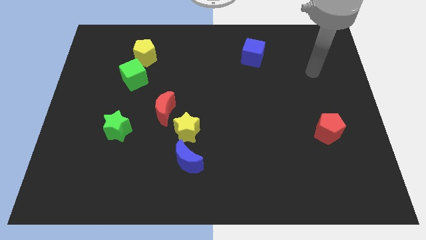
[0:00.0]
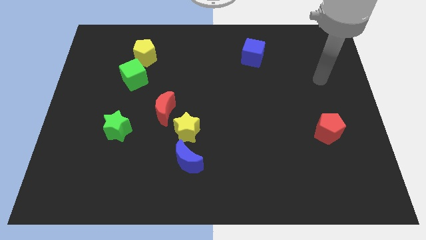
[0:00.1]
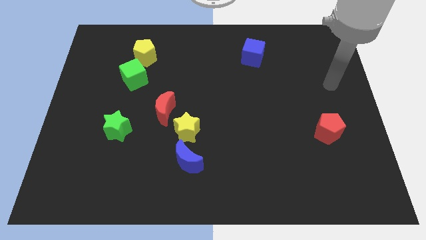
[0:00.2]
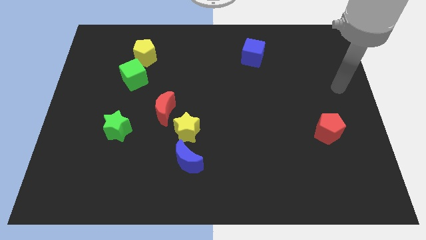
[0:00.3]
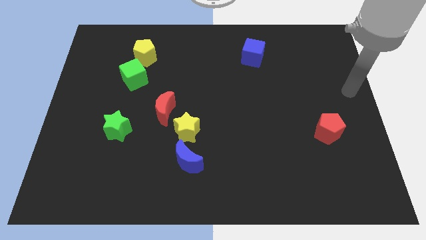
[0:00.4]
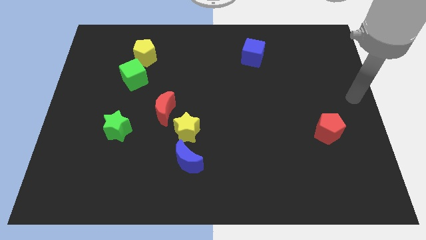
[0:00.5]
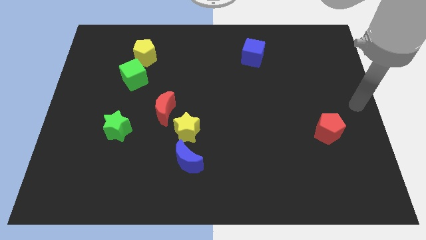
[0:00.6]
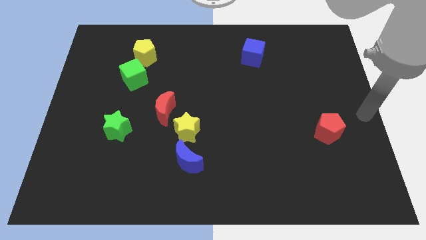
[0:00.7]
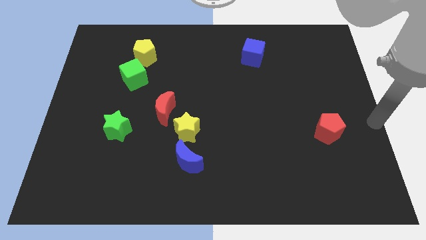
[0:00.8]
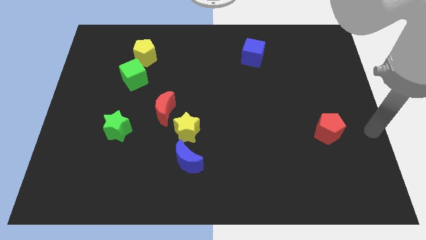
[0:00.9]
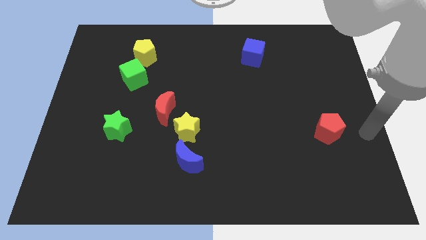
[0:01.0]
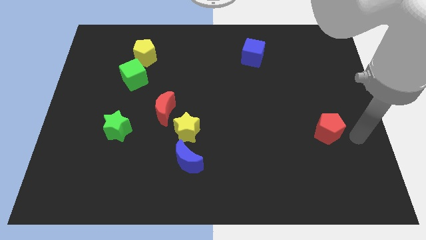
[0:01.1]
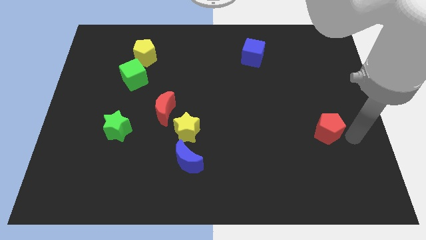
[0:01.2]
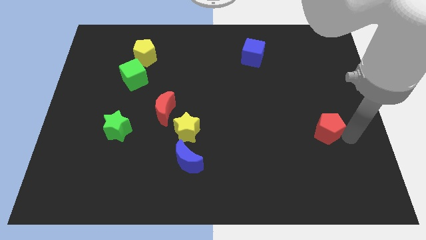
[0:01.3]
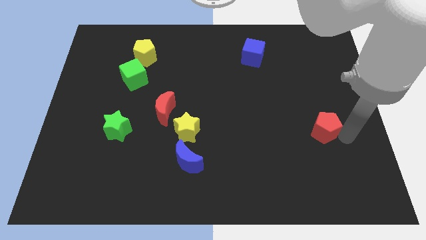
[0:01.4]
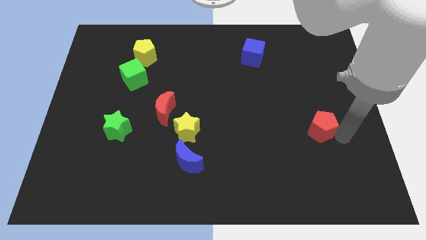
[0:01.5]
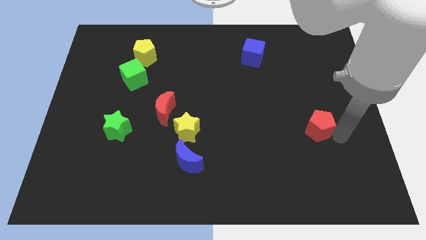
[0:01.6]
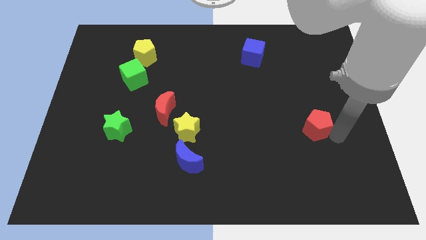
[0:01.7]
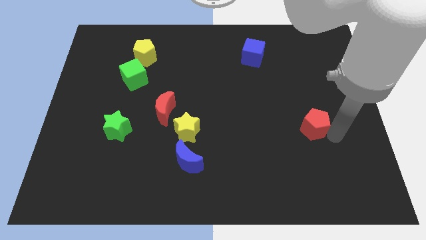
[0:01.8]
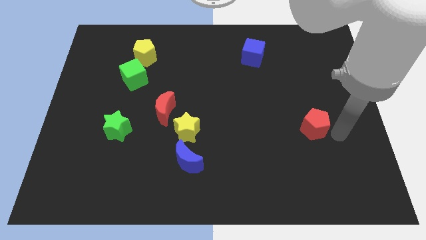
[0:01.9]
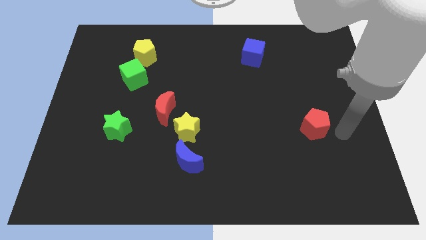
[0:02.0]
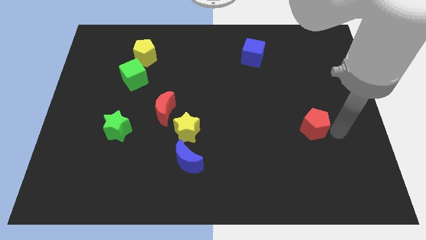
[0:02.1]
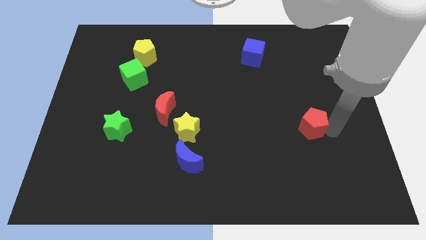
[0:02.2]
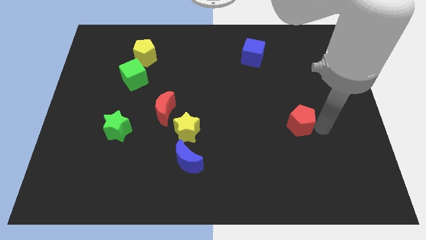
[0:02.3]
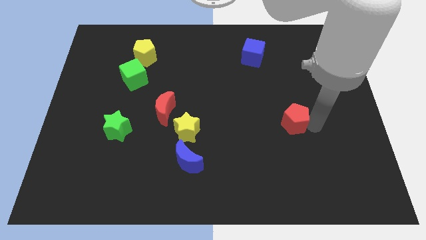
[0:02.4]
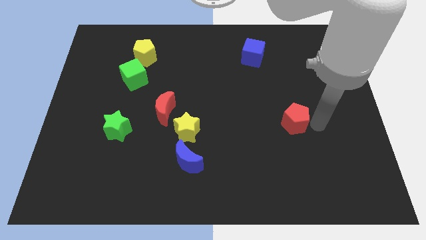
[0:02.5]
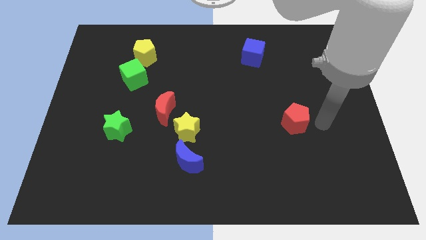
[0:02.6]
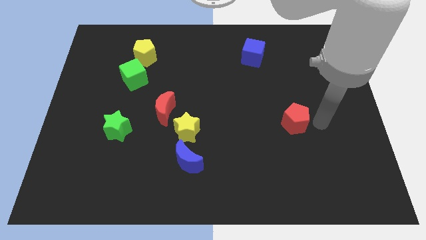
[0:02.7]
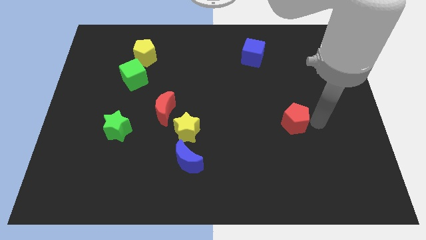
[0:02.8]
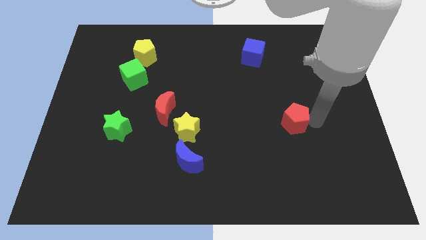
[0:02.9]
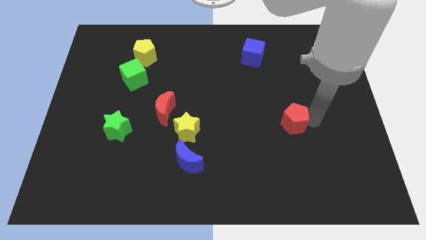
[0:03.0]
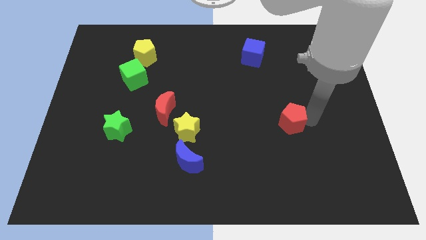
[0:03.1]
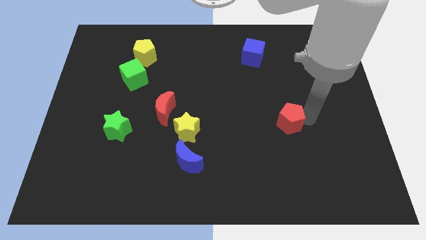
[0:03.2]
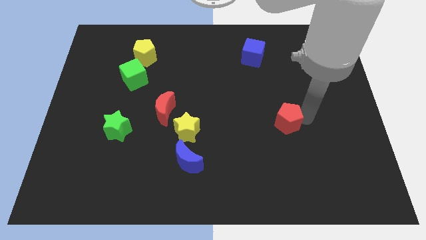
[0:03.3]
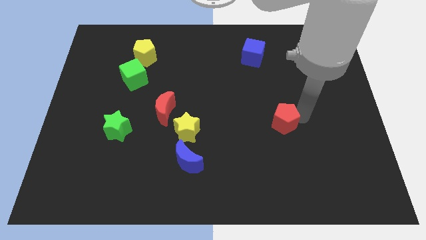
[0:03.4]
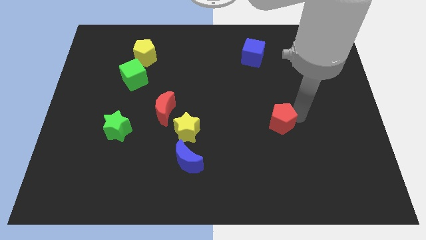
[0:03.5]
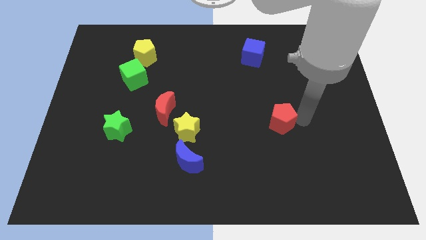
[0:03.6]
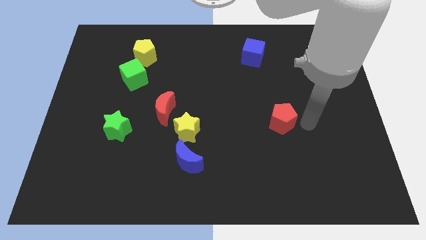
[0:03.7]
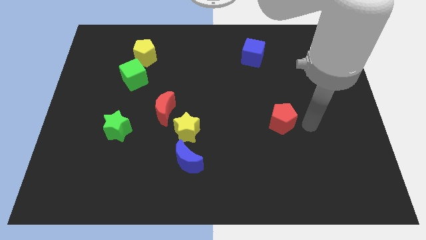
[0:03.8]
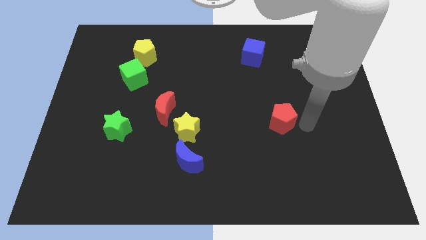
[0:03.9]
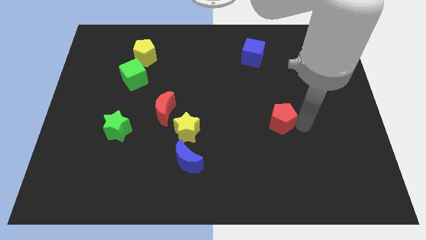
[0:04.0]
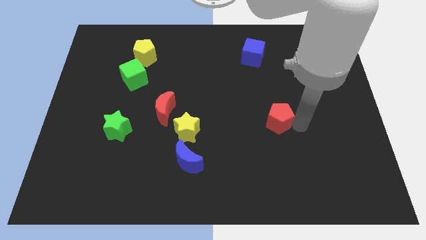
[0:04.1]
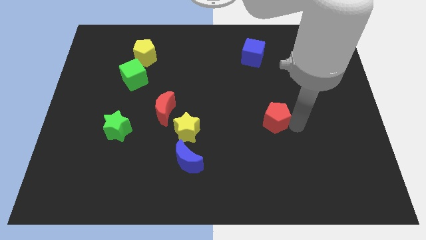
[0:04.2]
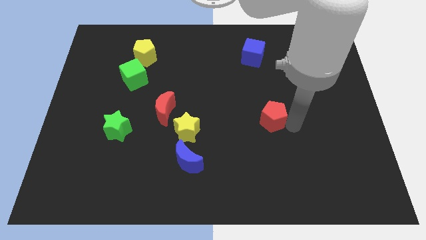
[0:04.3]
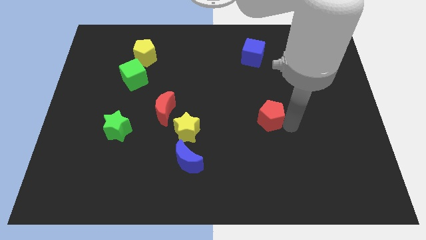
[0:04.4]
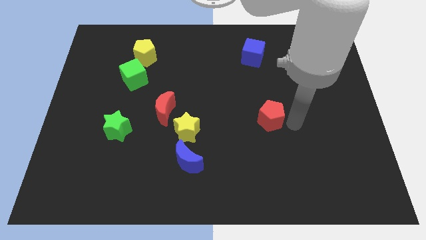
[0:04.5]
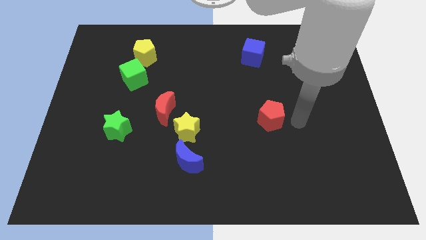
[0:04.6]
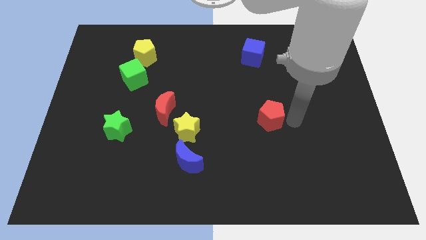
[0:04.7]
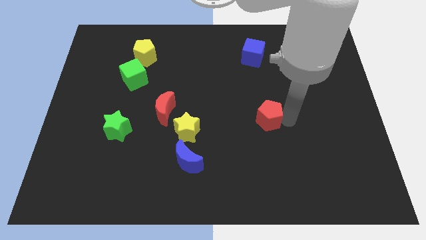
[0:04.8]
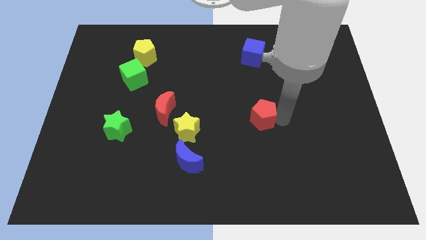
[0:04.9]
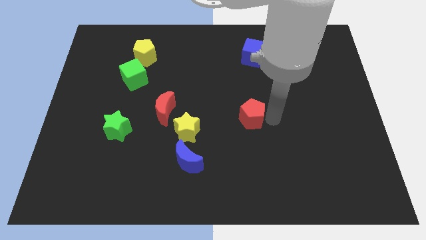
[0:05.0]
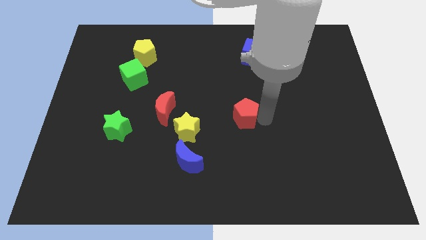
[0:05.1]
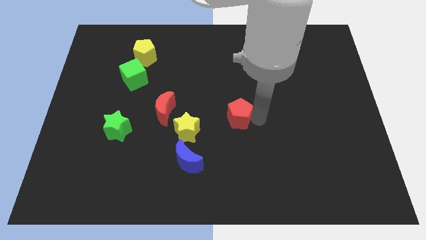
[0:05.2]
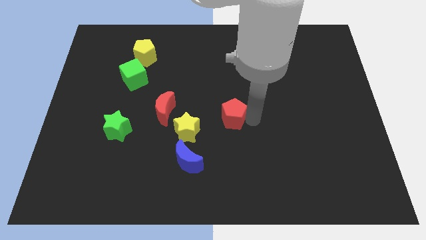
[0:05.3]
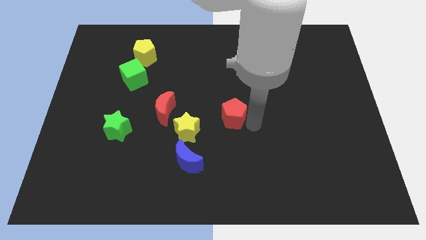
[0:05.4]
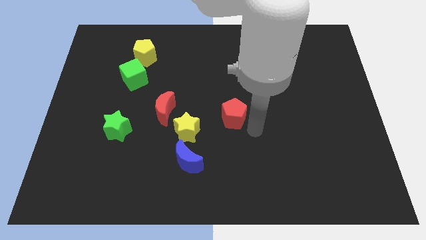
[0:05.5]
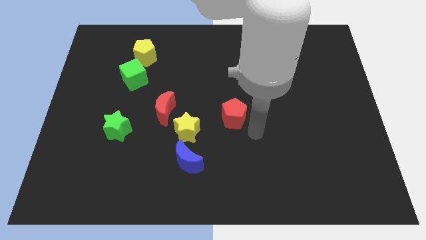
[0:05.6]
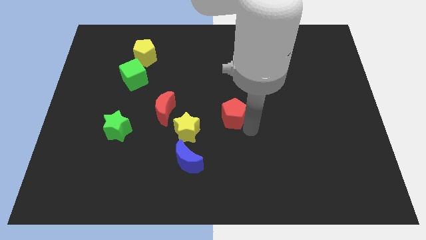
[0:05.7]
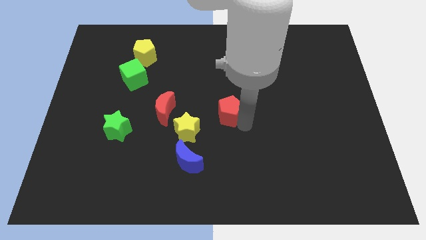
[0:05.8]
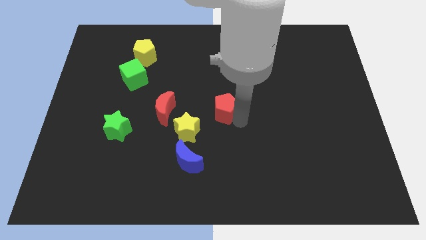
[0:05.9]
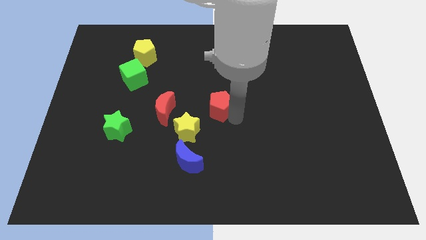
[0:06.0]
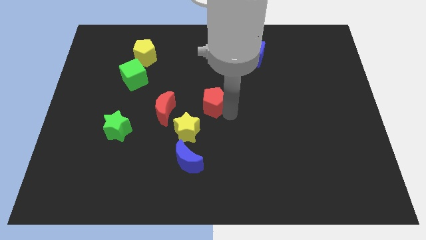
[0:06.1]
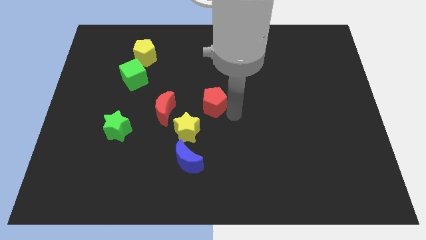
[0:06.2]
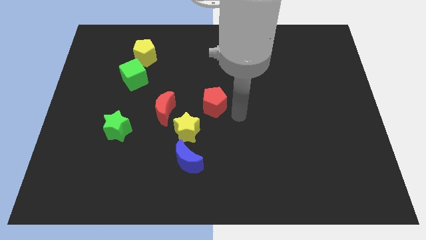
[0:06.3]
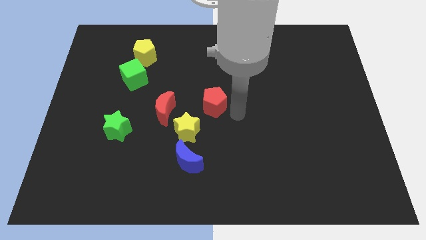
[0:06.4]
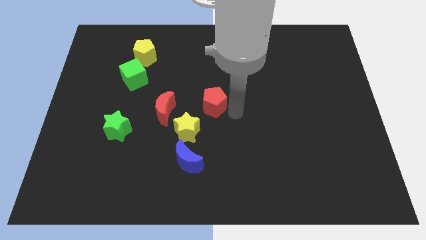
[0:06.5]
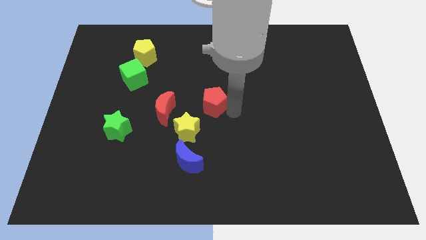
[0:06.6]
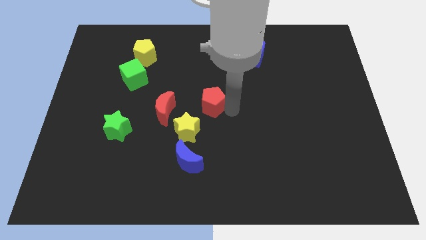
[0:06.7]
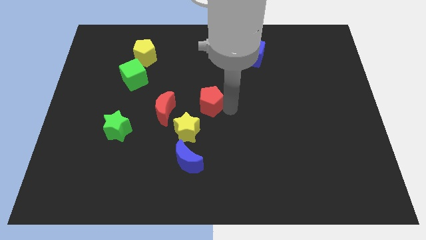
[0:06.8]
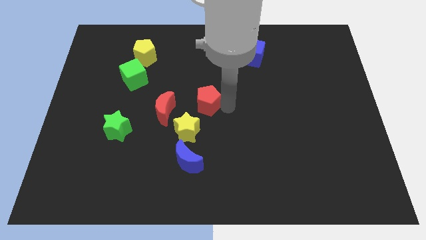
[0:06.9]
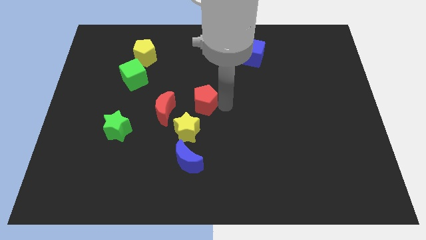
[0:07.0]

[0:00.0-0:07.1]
push the red pentagon to the top right of the red moon

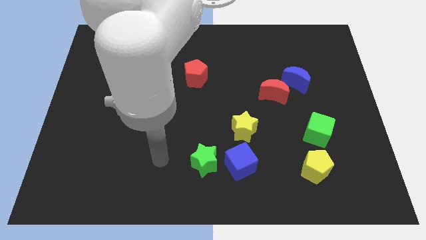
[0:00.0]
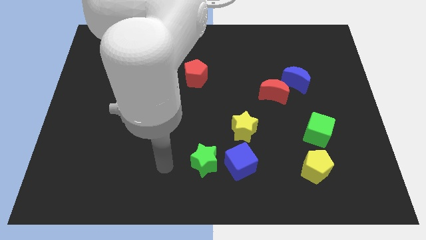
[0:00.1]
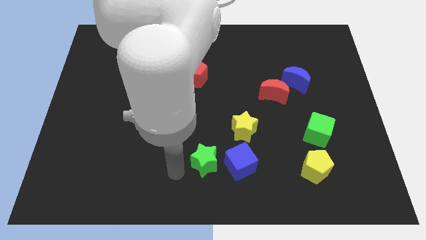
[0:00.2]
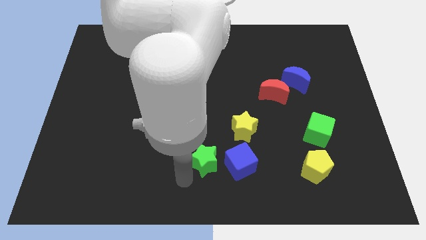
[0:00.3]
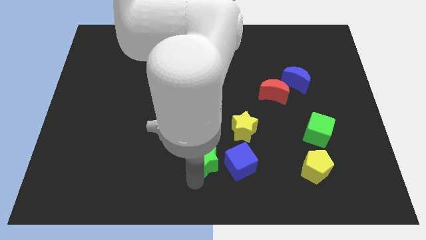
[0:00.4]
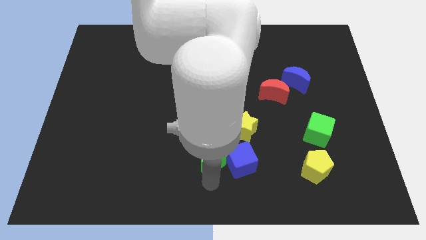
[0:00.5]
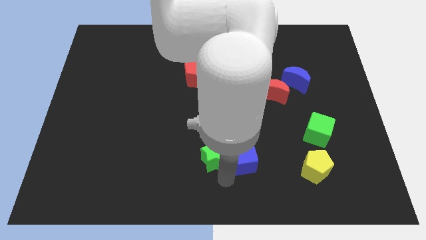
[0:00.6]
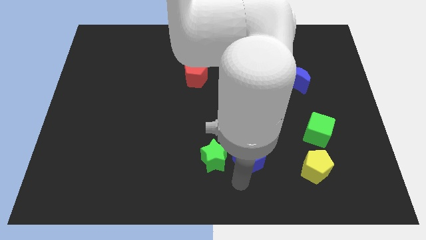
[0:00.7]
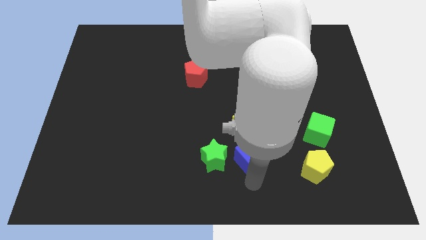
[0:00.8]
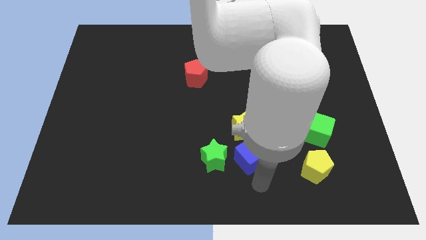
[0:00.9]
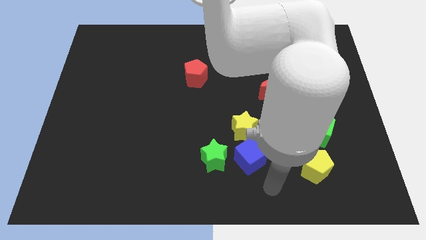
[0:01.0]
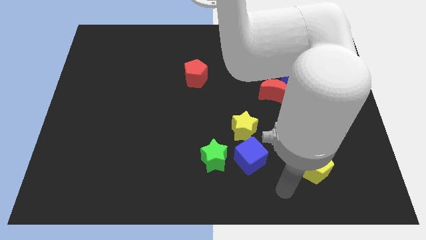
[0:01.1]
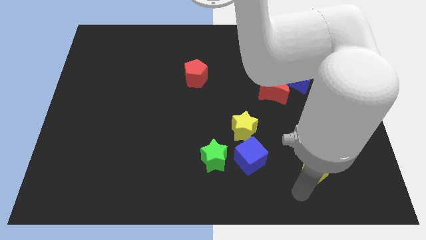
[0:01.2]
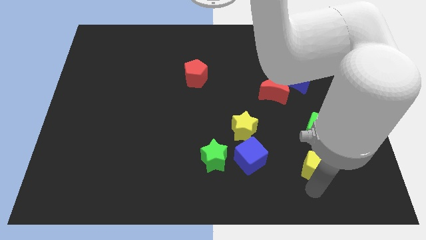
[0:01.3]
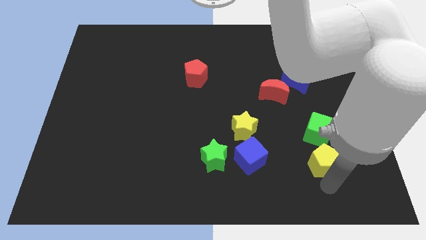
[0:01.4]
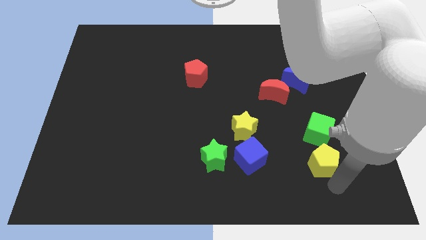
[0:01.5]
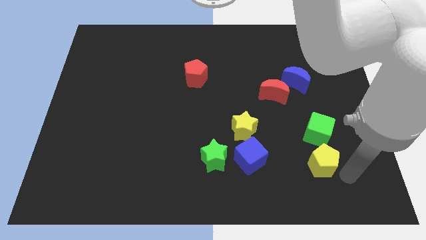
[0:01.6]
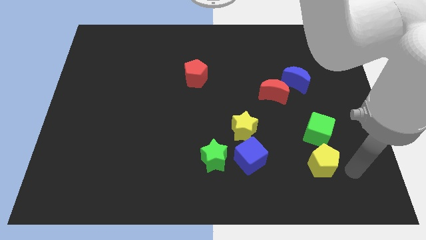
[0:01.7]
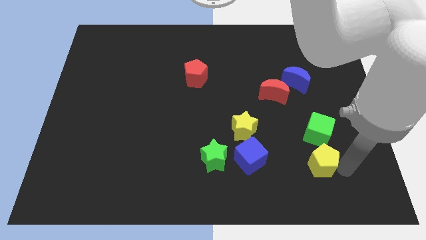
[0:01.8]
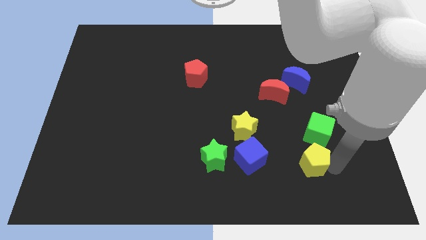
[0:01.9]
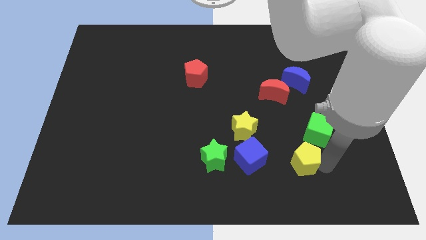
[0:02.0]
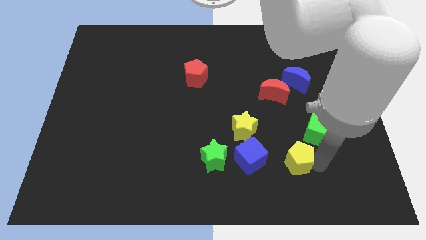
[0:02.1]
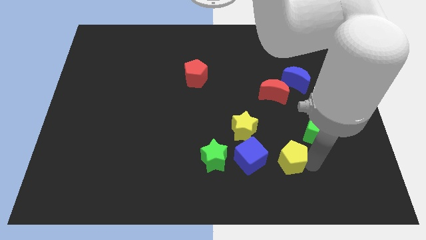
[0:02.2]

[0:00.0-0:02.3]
slide the yellow pentagon to the bottom right of the yellow star
